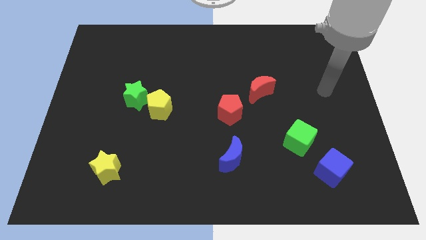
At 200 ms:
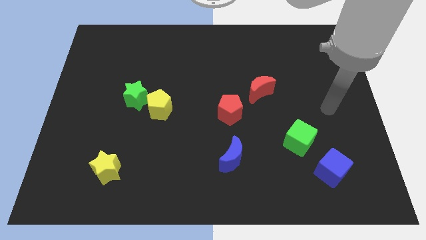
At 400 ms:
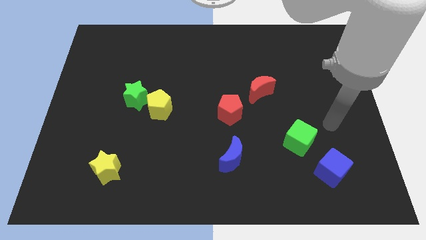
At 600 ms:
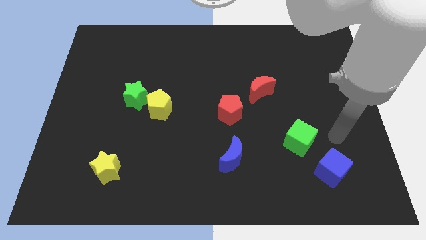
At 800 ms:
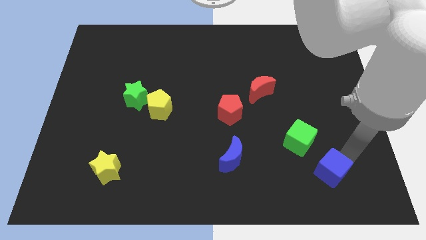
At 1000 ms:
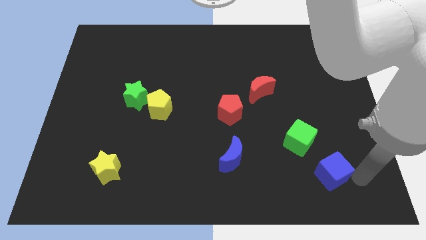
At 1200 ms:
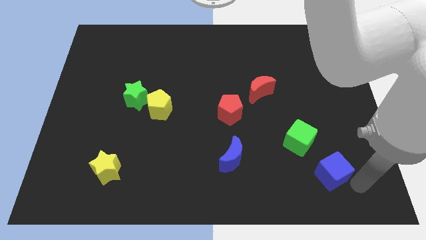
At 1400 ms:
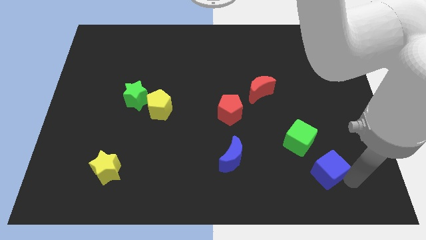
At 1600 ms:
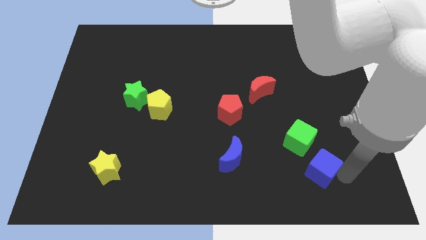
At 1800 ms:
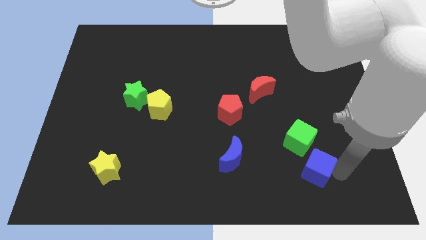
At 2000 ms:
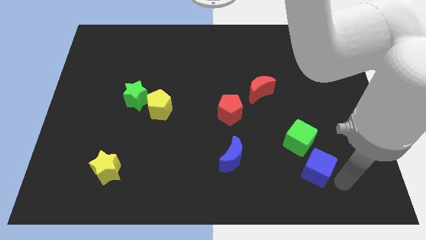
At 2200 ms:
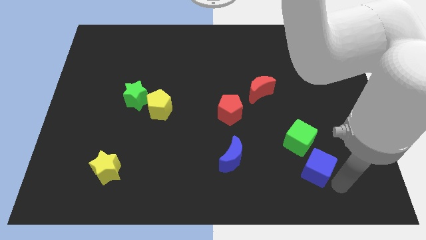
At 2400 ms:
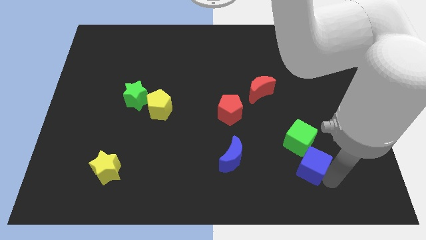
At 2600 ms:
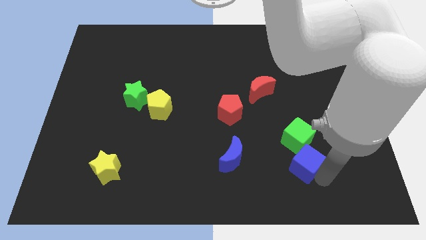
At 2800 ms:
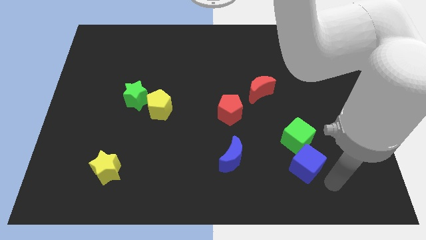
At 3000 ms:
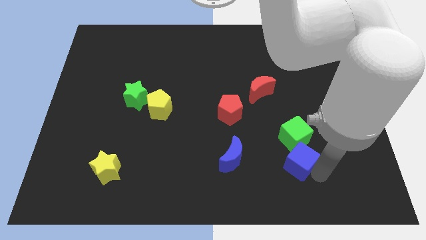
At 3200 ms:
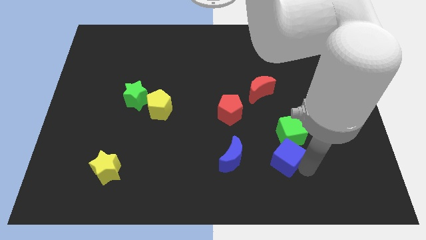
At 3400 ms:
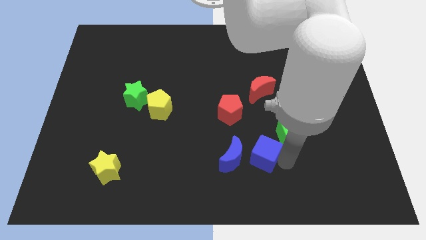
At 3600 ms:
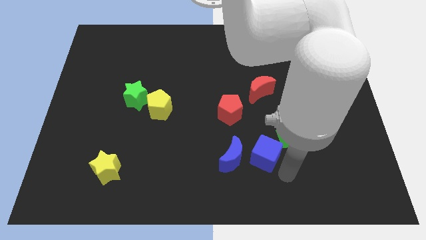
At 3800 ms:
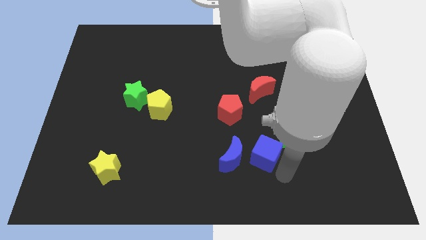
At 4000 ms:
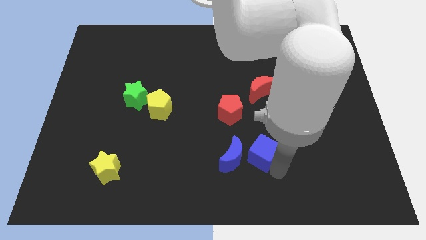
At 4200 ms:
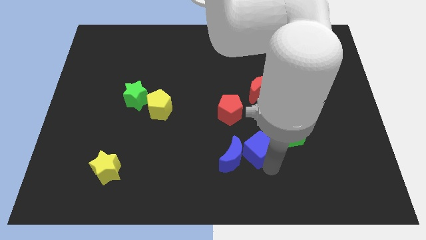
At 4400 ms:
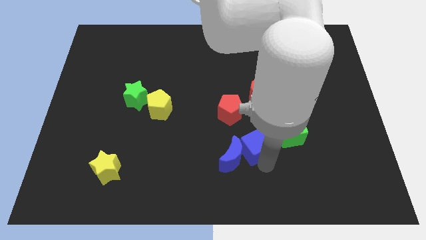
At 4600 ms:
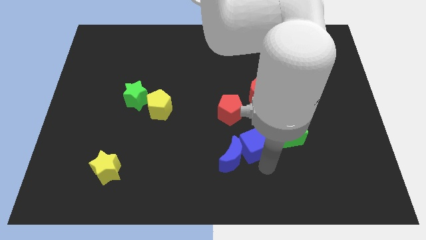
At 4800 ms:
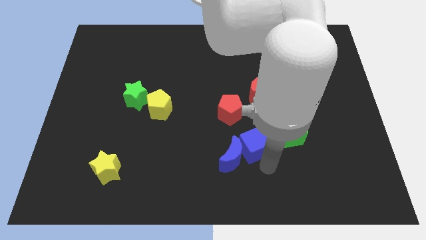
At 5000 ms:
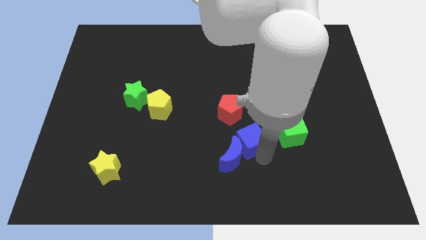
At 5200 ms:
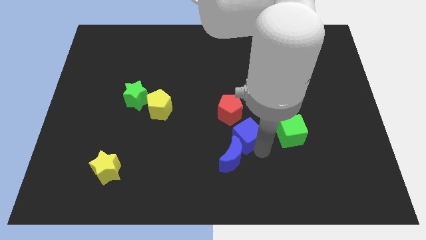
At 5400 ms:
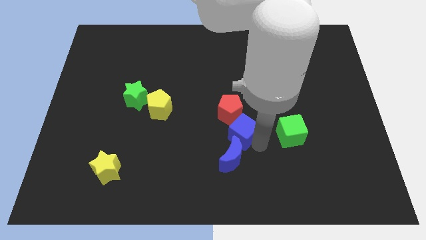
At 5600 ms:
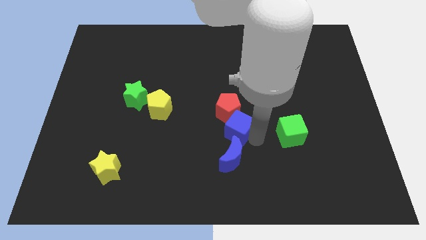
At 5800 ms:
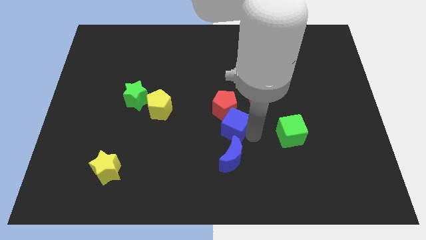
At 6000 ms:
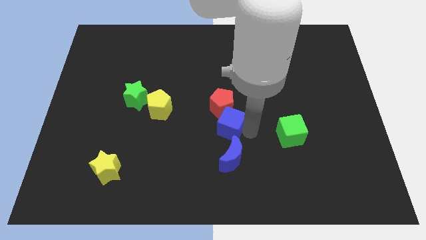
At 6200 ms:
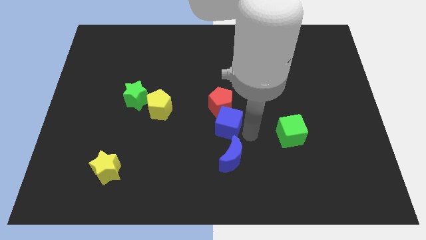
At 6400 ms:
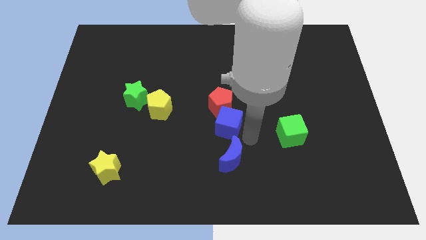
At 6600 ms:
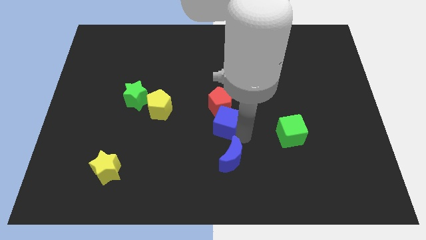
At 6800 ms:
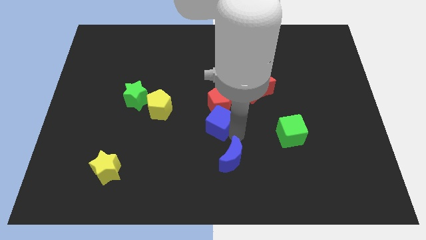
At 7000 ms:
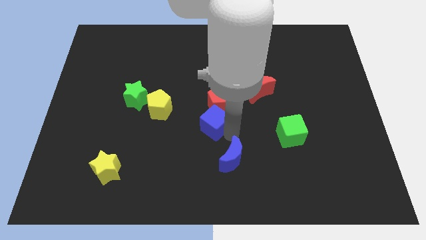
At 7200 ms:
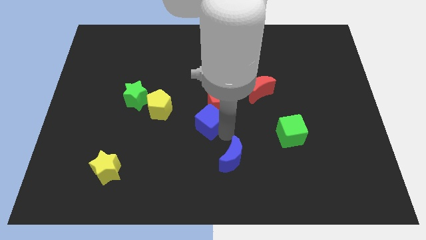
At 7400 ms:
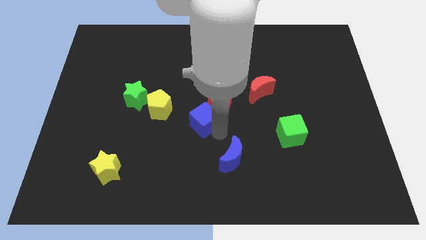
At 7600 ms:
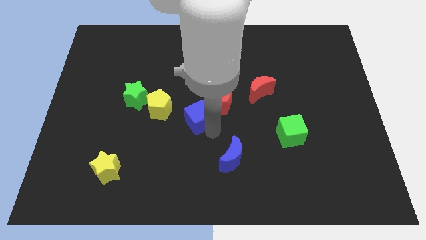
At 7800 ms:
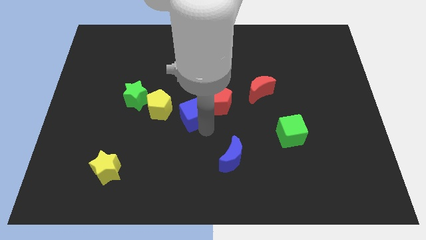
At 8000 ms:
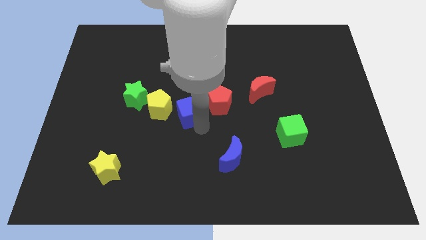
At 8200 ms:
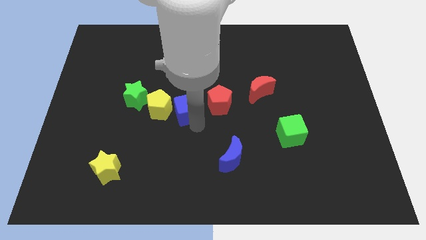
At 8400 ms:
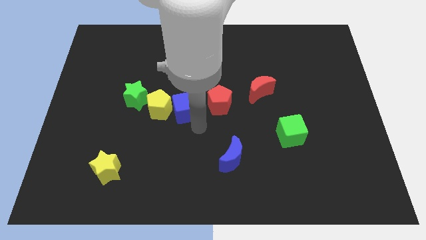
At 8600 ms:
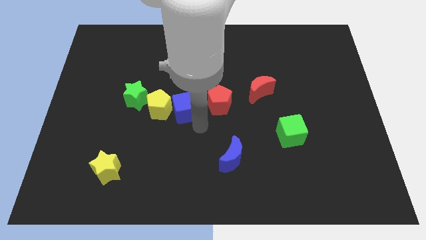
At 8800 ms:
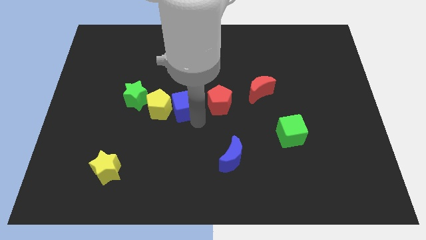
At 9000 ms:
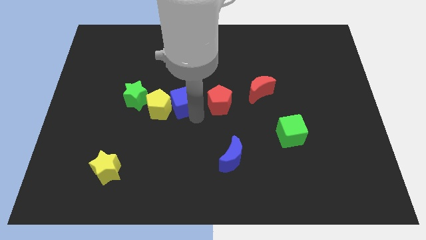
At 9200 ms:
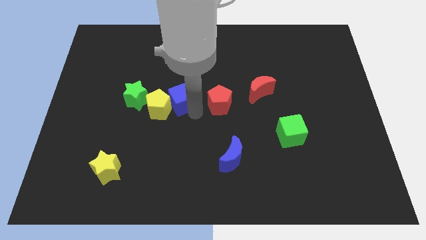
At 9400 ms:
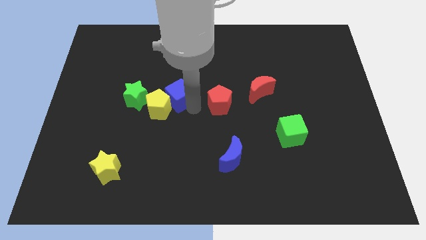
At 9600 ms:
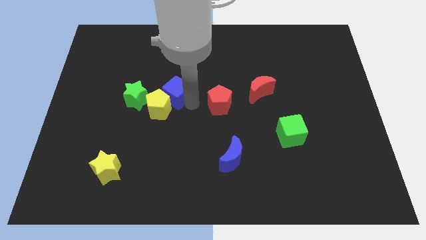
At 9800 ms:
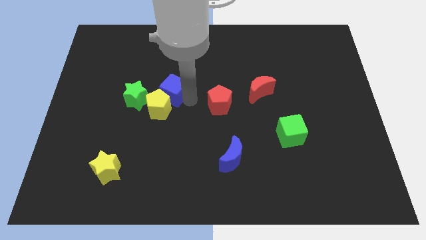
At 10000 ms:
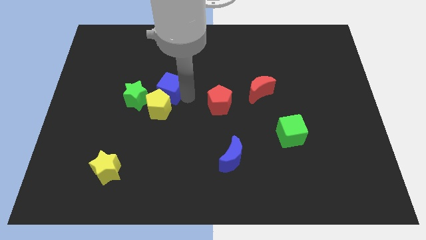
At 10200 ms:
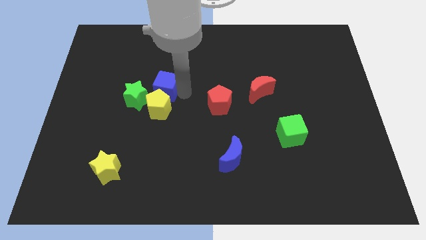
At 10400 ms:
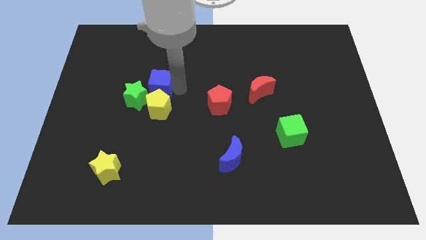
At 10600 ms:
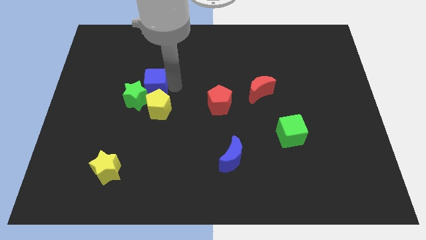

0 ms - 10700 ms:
put the blue cube close to the green star

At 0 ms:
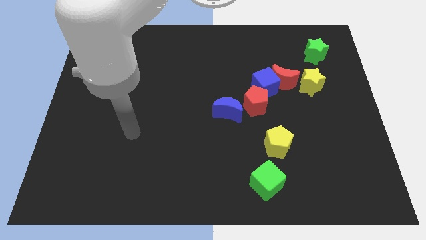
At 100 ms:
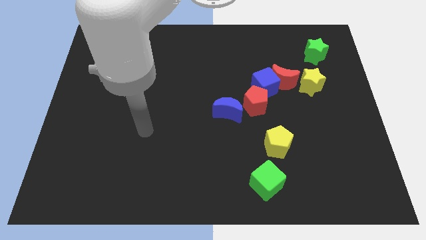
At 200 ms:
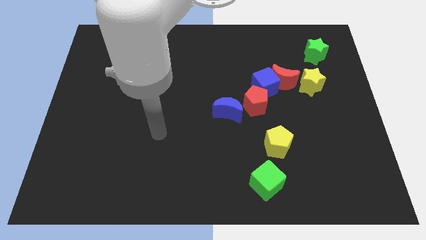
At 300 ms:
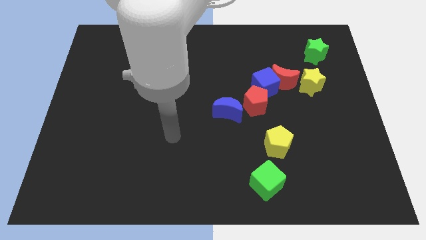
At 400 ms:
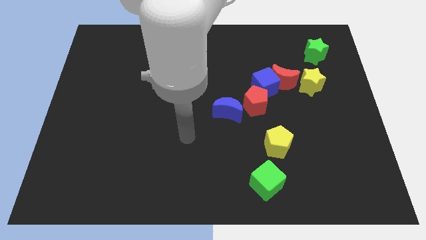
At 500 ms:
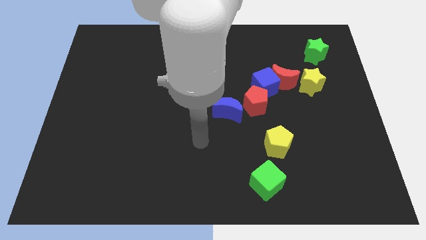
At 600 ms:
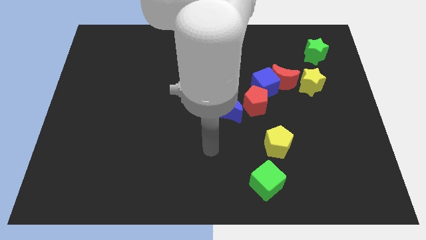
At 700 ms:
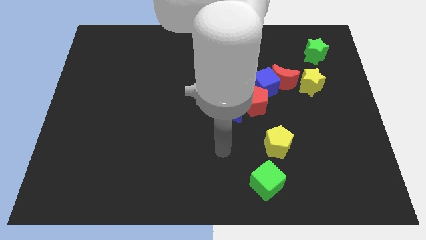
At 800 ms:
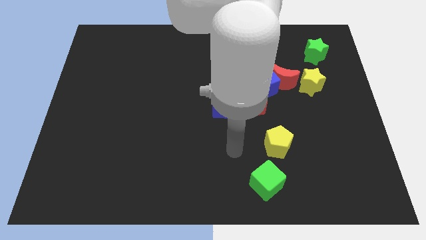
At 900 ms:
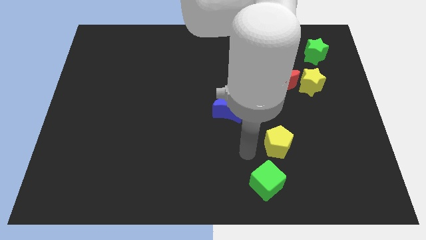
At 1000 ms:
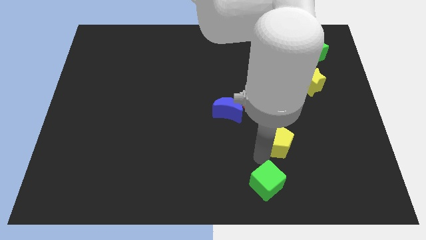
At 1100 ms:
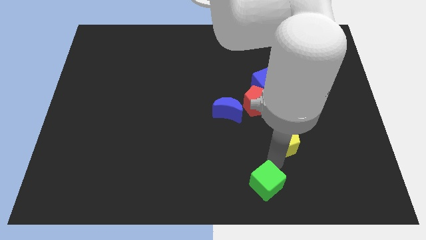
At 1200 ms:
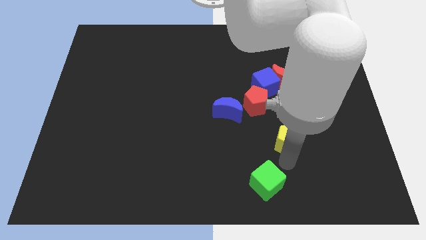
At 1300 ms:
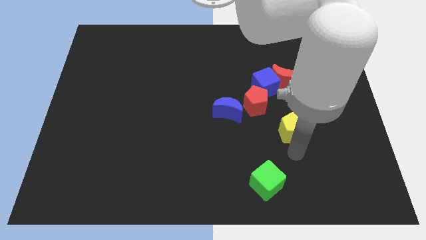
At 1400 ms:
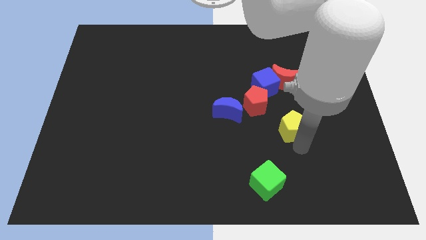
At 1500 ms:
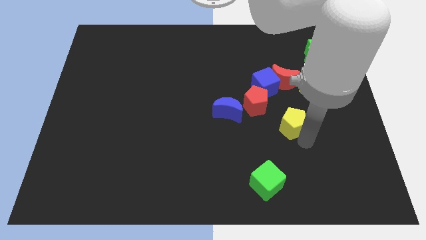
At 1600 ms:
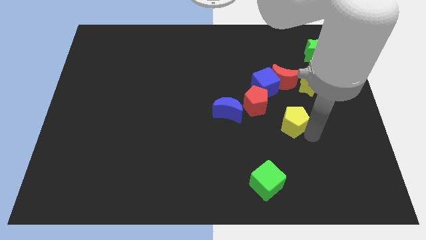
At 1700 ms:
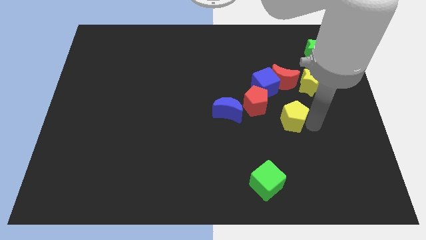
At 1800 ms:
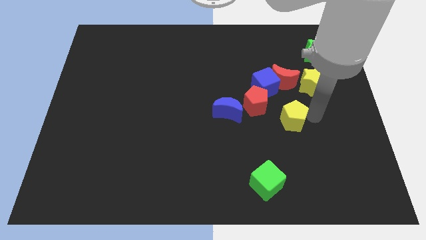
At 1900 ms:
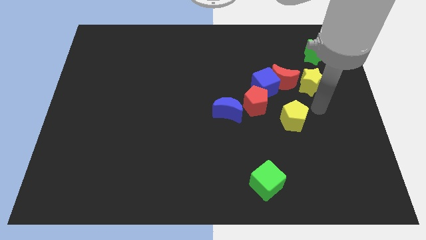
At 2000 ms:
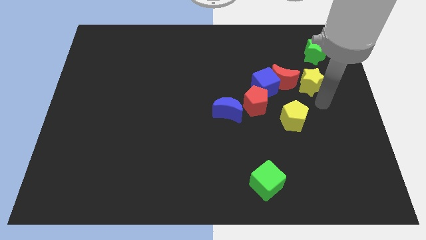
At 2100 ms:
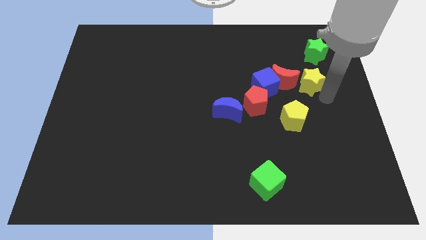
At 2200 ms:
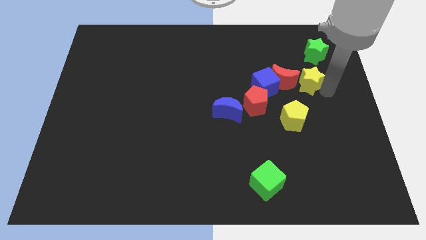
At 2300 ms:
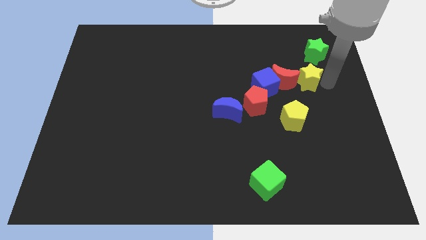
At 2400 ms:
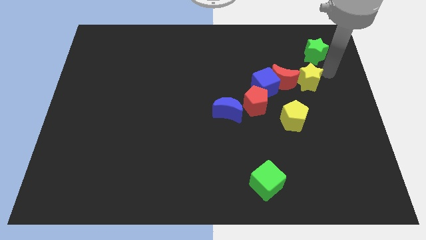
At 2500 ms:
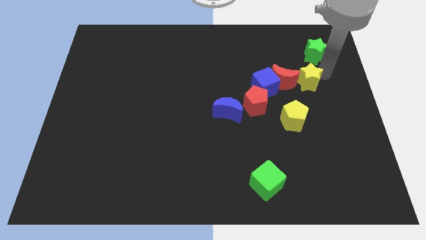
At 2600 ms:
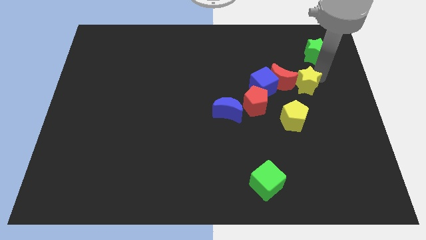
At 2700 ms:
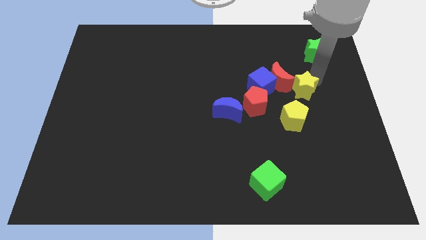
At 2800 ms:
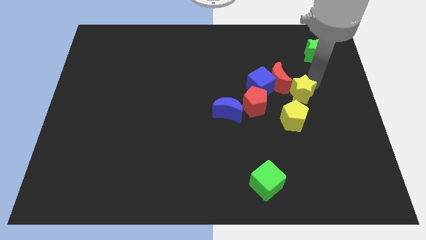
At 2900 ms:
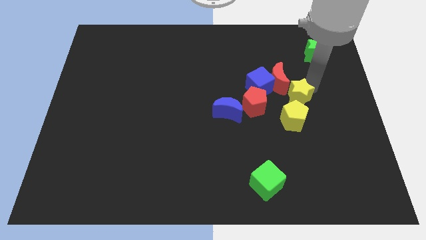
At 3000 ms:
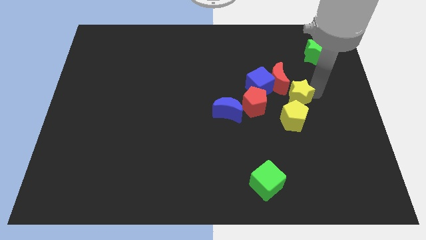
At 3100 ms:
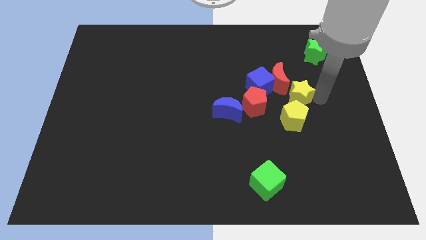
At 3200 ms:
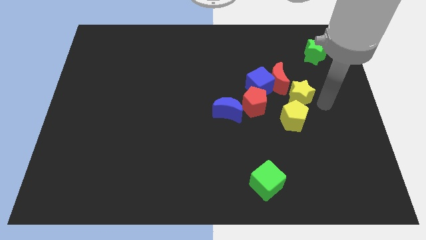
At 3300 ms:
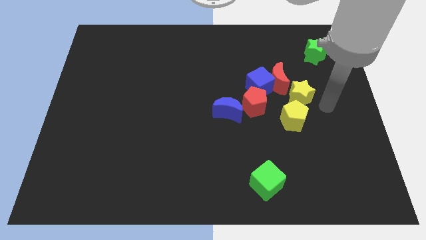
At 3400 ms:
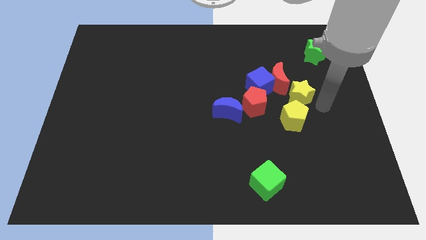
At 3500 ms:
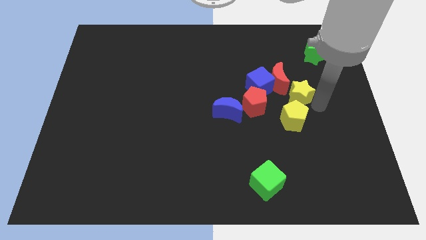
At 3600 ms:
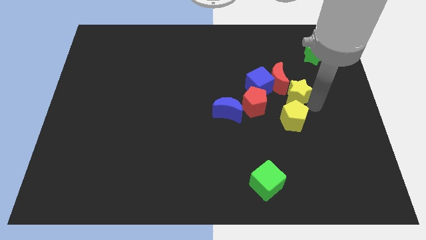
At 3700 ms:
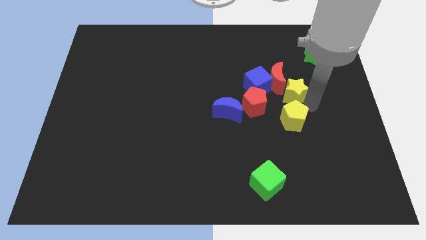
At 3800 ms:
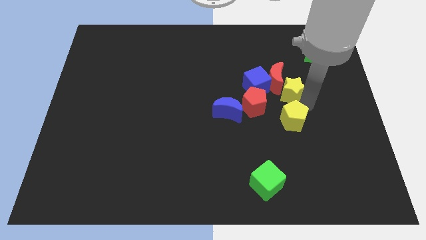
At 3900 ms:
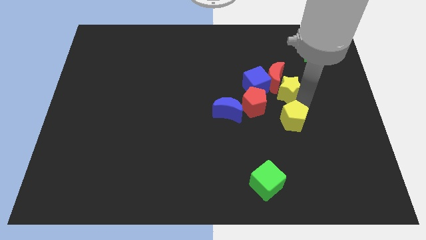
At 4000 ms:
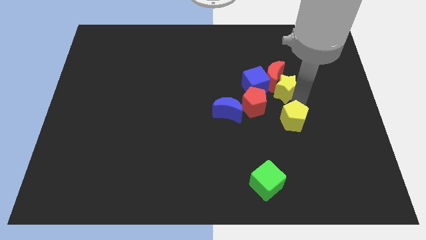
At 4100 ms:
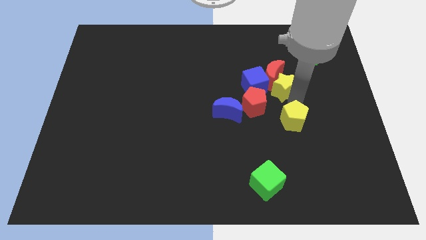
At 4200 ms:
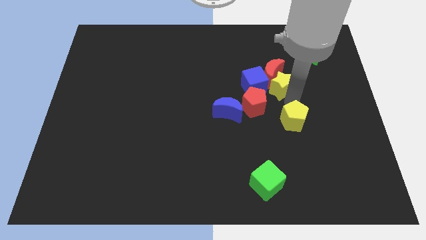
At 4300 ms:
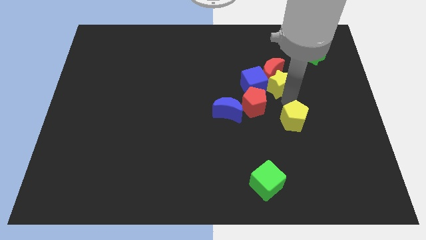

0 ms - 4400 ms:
slide the yellow star next to the blue cube
